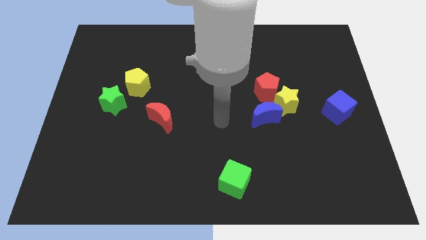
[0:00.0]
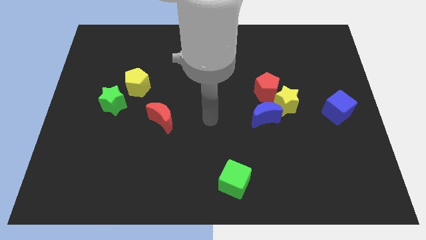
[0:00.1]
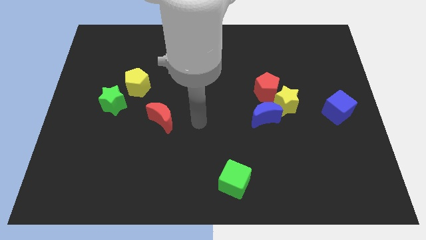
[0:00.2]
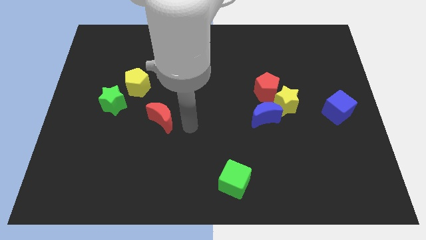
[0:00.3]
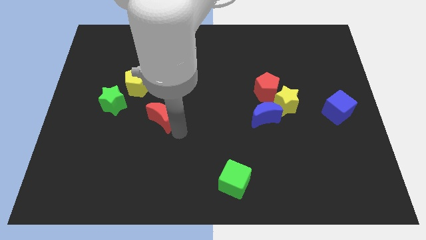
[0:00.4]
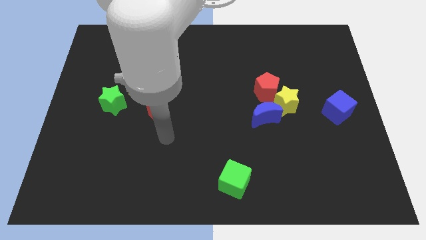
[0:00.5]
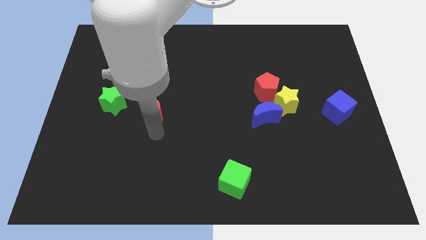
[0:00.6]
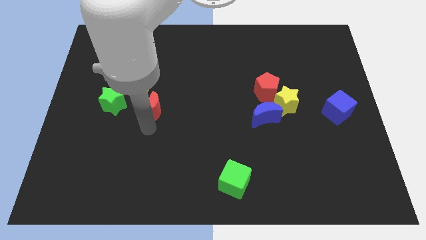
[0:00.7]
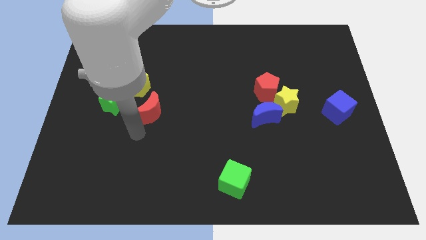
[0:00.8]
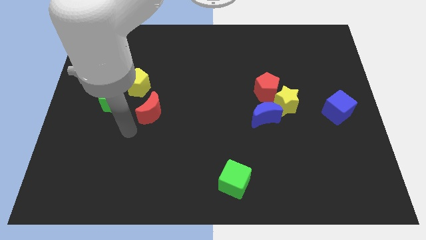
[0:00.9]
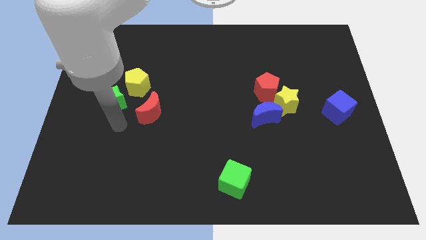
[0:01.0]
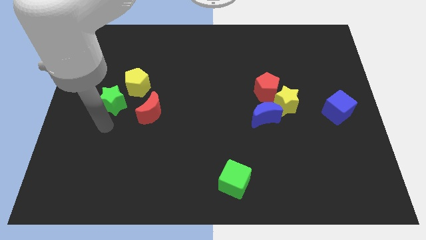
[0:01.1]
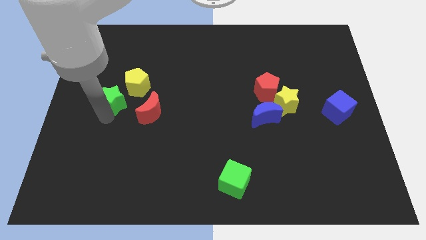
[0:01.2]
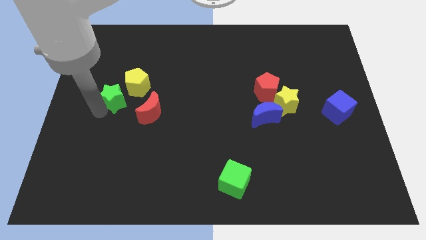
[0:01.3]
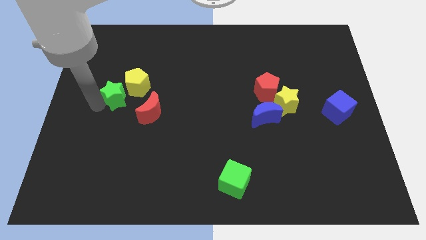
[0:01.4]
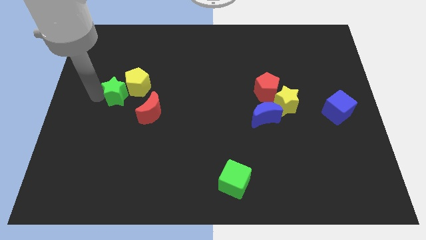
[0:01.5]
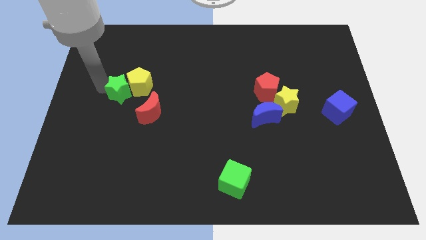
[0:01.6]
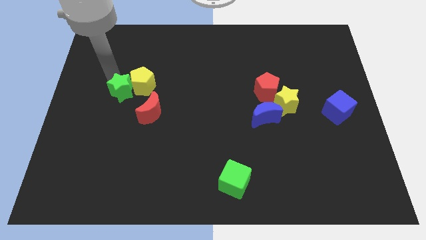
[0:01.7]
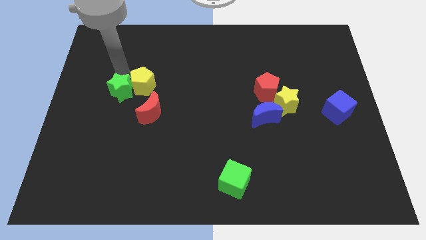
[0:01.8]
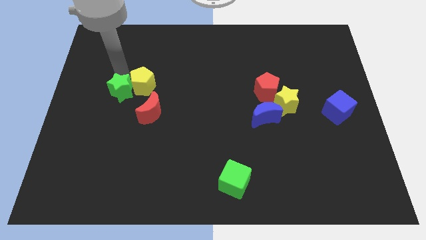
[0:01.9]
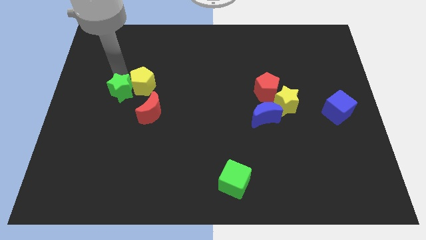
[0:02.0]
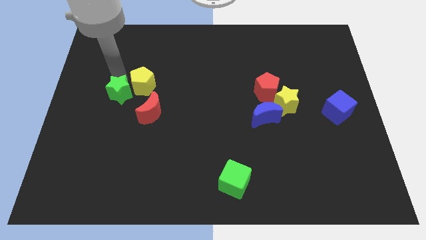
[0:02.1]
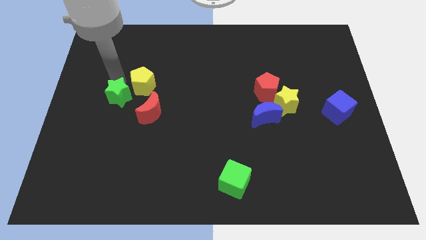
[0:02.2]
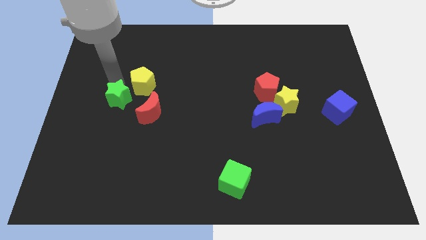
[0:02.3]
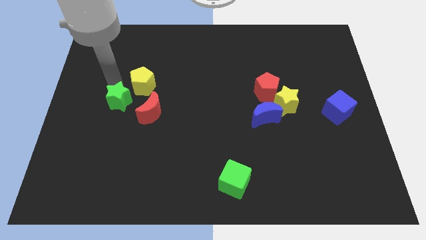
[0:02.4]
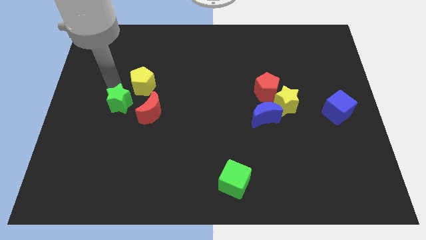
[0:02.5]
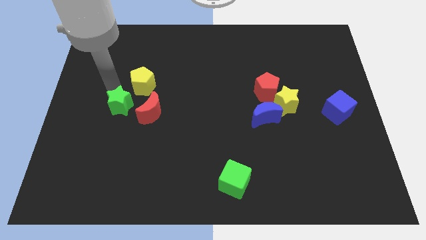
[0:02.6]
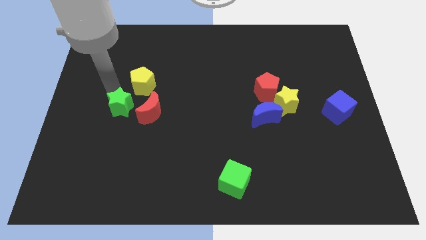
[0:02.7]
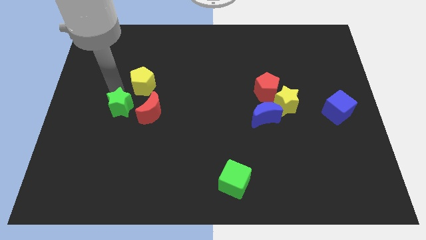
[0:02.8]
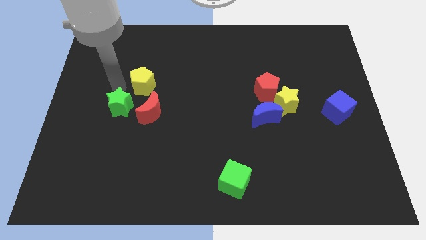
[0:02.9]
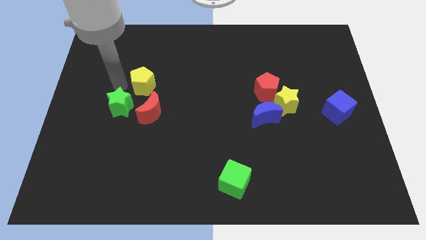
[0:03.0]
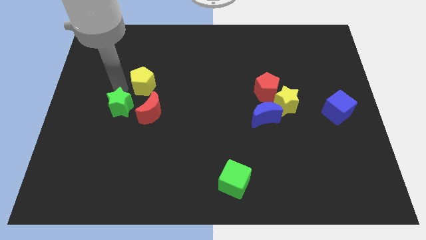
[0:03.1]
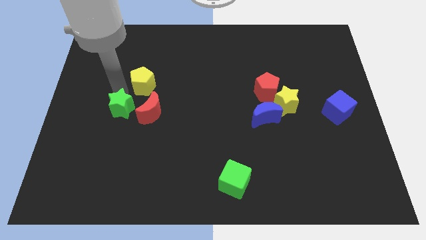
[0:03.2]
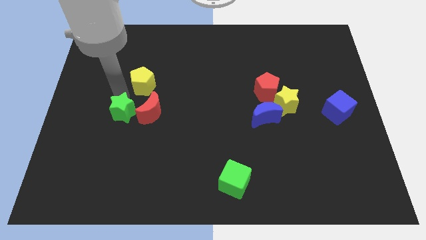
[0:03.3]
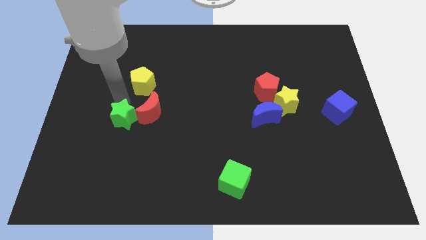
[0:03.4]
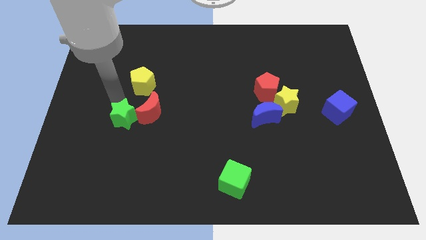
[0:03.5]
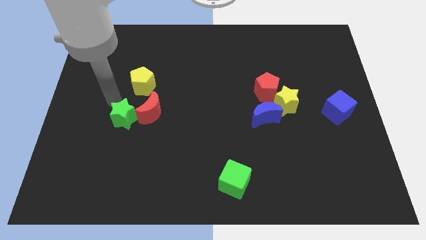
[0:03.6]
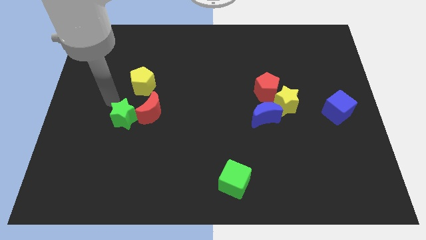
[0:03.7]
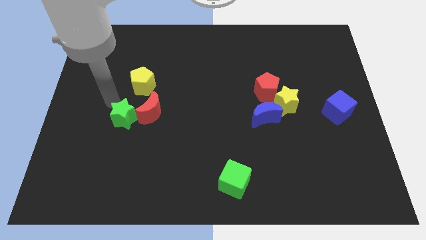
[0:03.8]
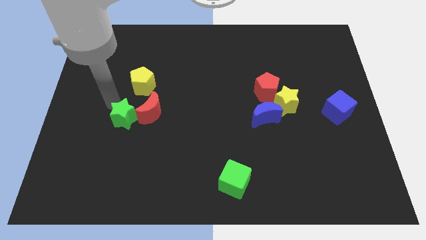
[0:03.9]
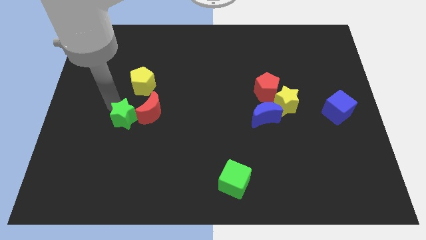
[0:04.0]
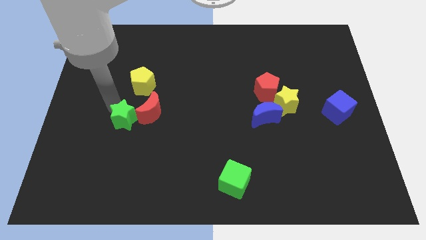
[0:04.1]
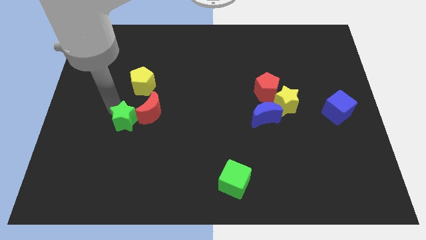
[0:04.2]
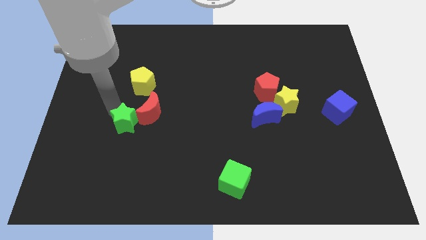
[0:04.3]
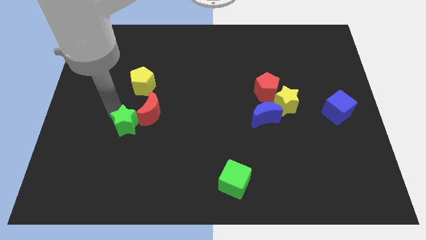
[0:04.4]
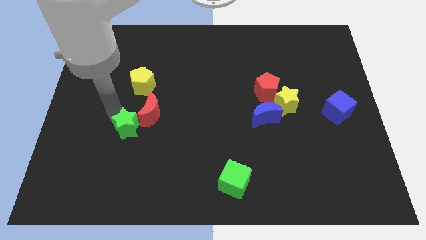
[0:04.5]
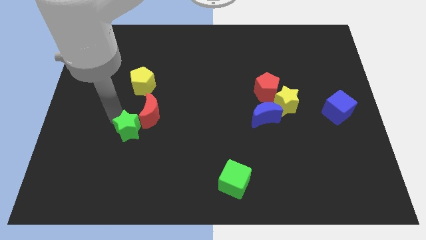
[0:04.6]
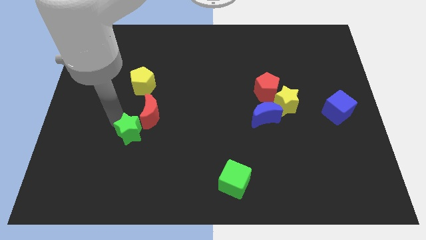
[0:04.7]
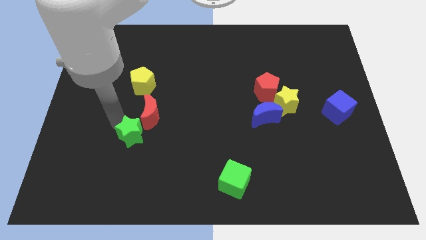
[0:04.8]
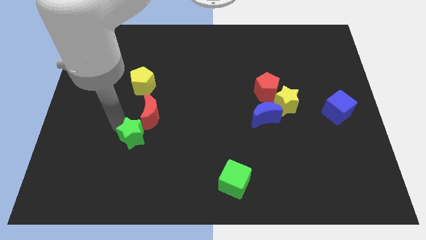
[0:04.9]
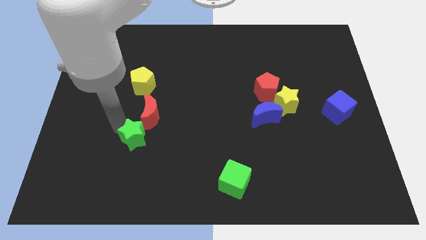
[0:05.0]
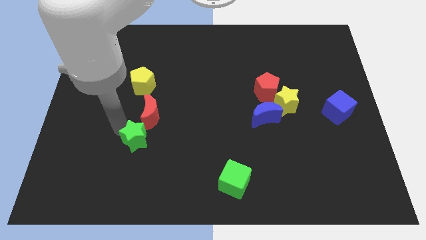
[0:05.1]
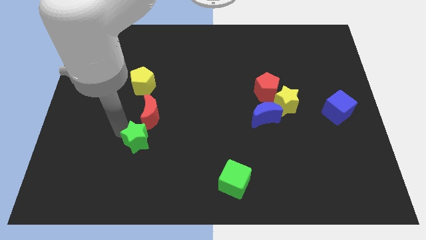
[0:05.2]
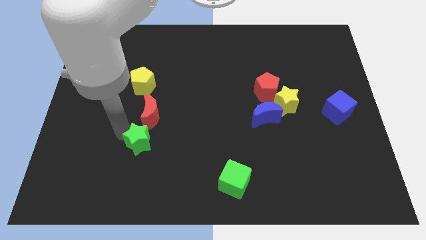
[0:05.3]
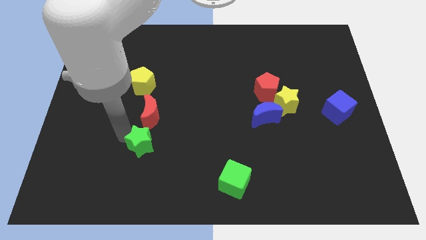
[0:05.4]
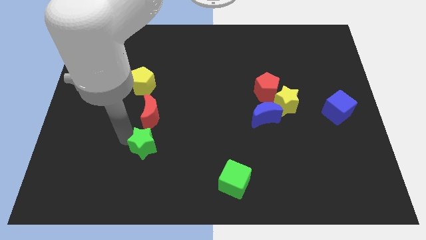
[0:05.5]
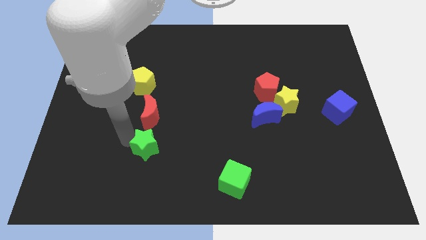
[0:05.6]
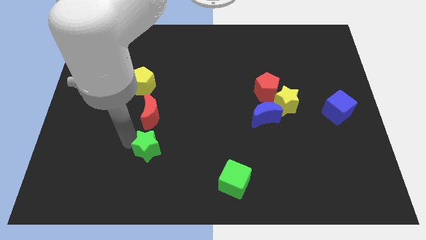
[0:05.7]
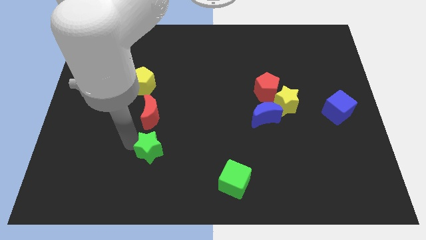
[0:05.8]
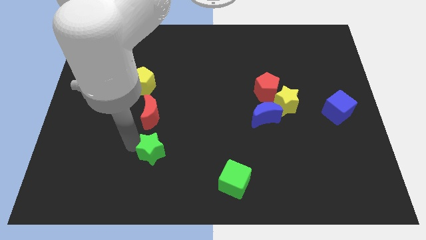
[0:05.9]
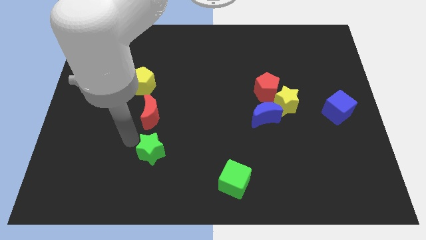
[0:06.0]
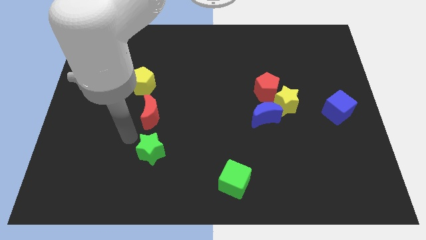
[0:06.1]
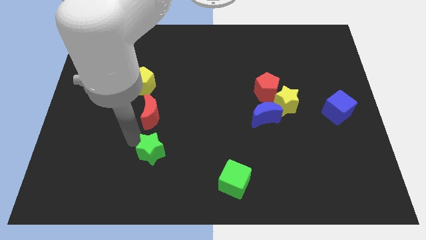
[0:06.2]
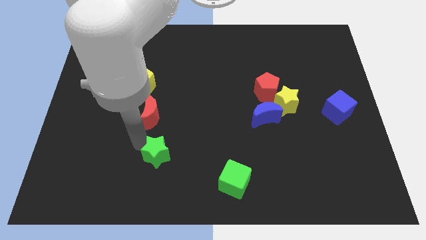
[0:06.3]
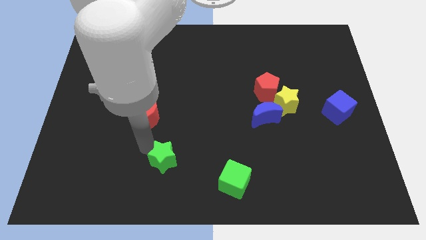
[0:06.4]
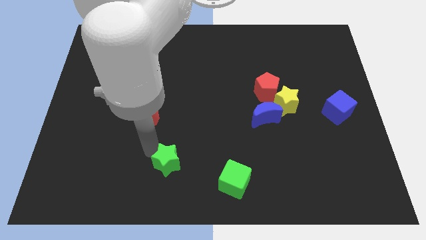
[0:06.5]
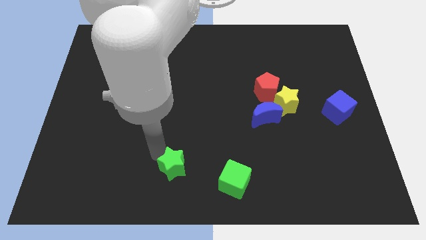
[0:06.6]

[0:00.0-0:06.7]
move the green star to the left side of the green cube

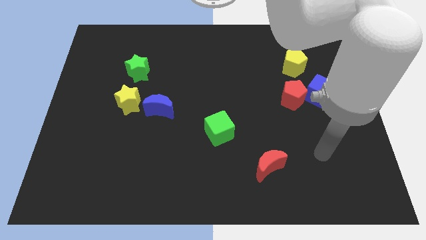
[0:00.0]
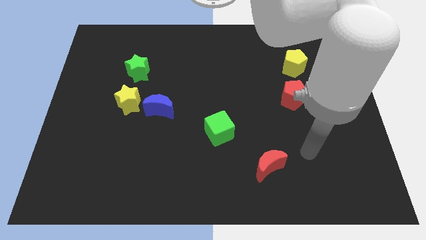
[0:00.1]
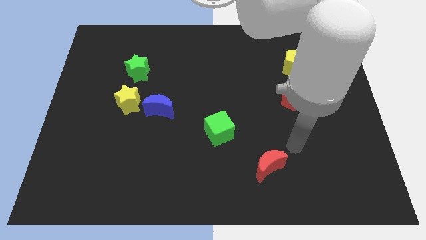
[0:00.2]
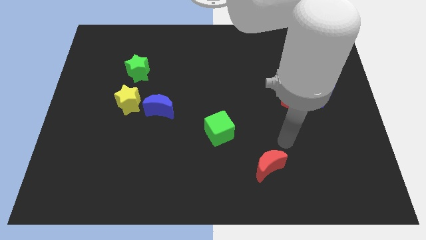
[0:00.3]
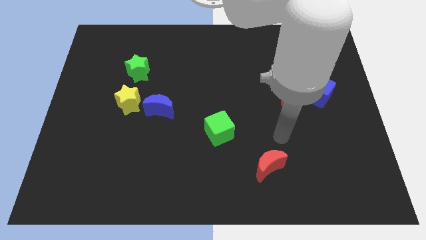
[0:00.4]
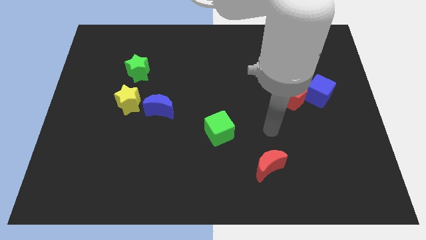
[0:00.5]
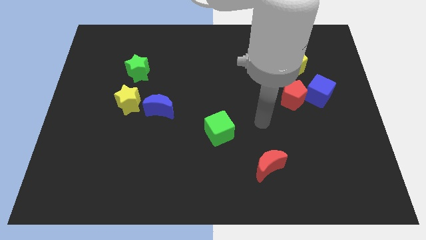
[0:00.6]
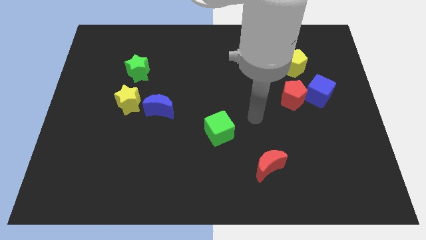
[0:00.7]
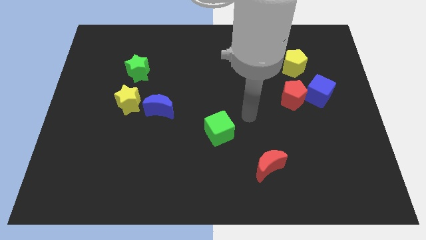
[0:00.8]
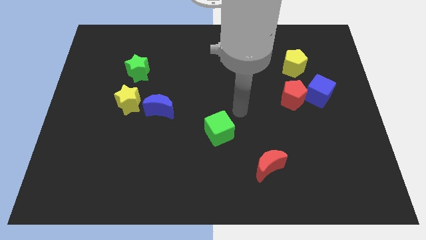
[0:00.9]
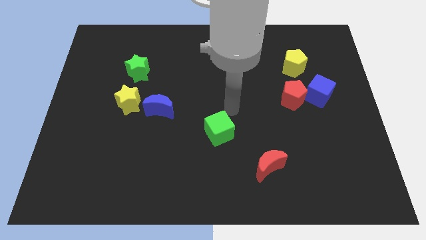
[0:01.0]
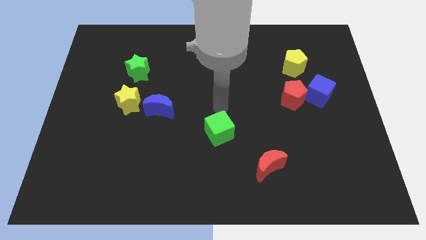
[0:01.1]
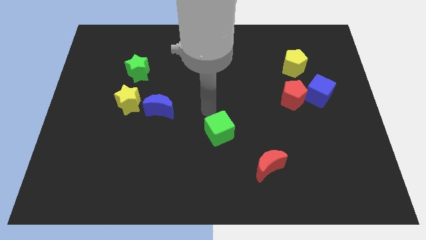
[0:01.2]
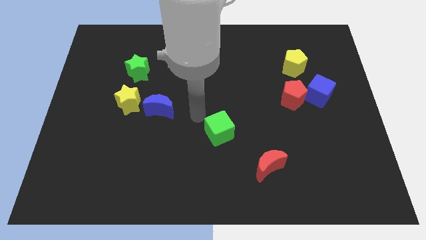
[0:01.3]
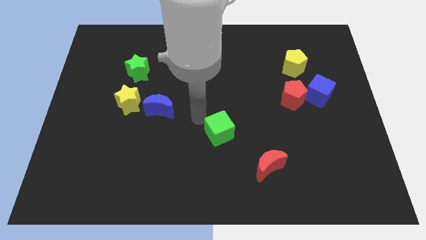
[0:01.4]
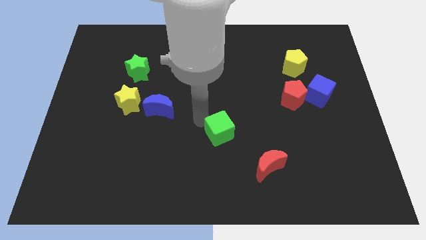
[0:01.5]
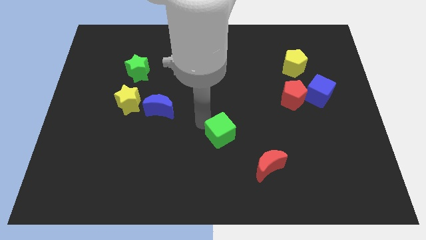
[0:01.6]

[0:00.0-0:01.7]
push the green cube to the top left of the red moon
